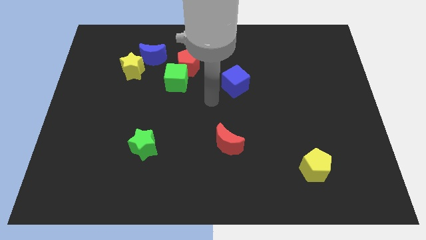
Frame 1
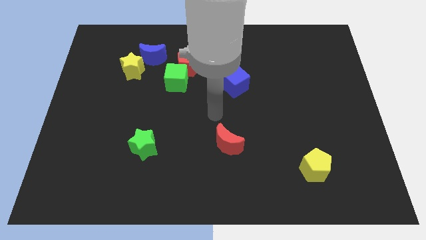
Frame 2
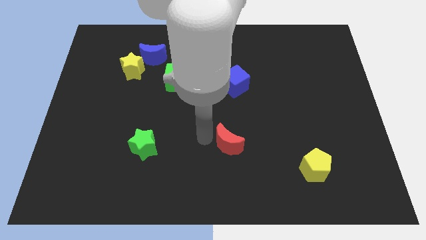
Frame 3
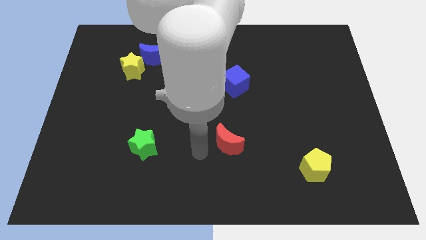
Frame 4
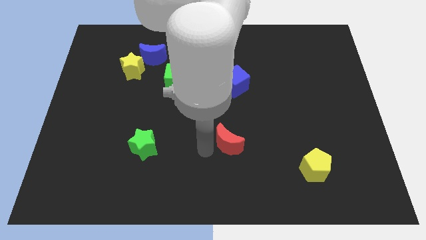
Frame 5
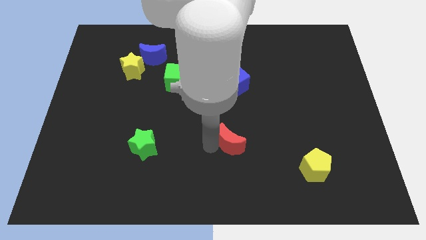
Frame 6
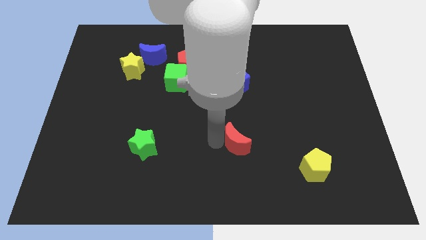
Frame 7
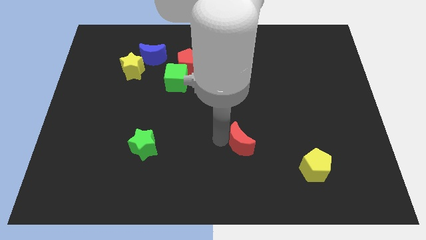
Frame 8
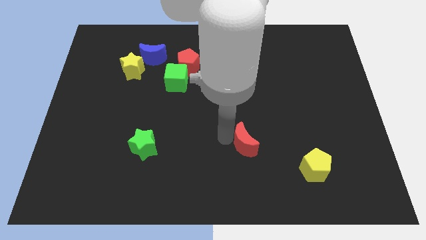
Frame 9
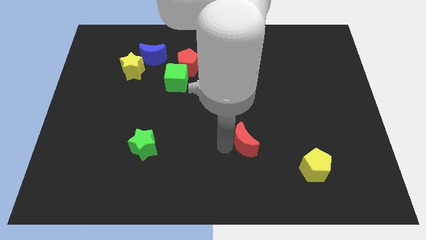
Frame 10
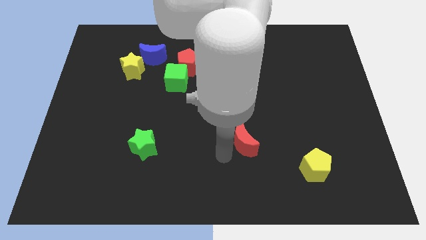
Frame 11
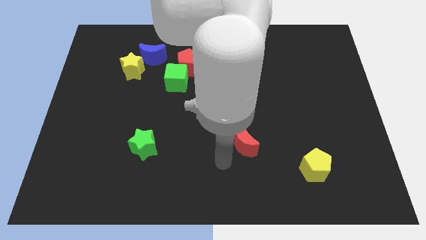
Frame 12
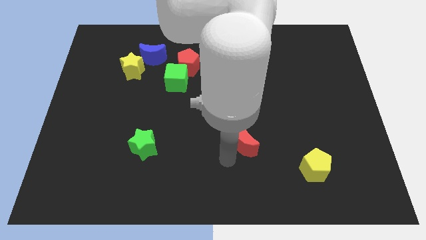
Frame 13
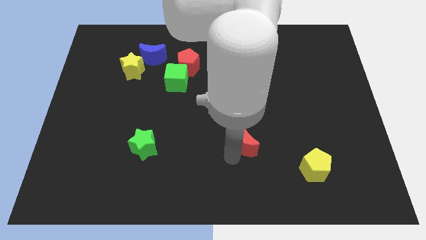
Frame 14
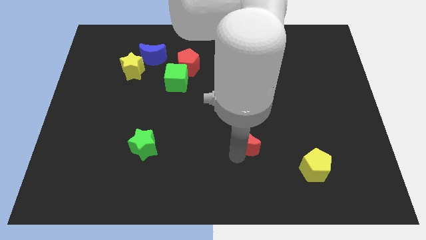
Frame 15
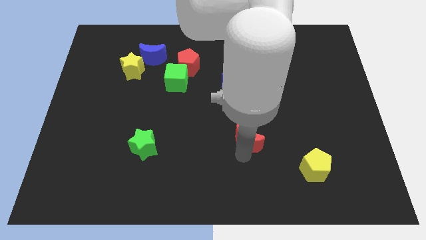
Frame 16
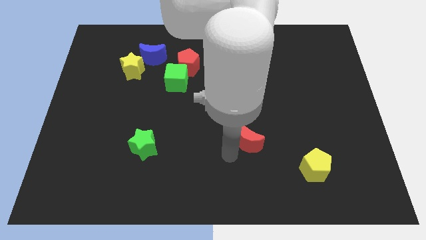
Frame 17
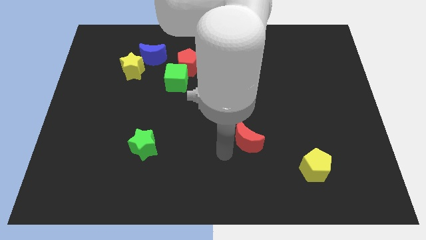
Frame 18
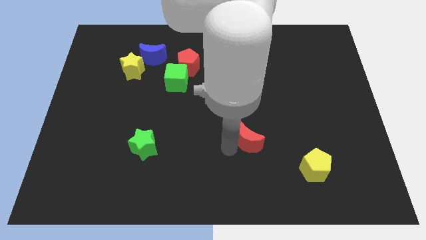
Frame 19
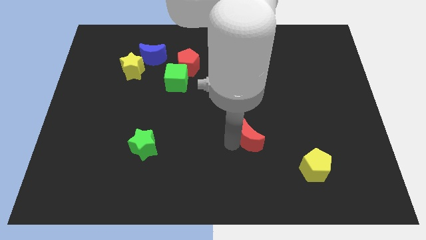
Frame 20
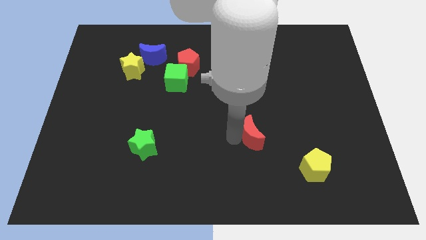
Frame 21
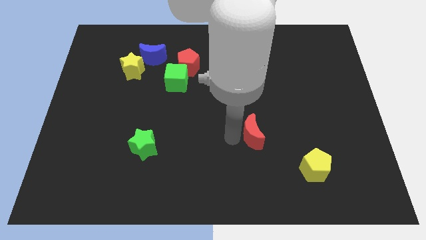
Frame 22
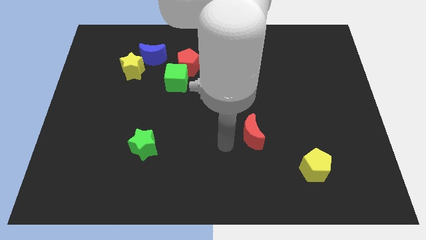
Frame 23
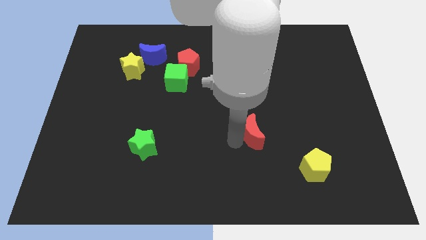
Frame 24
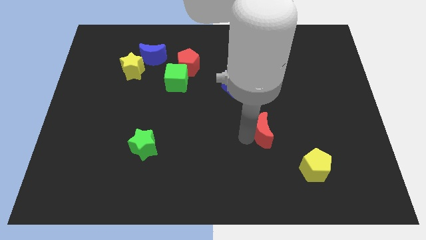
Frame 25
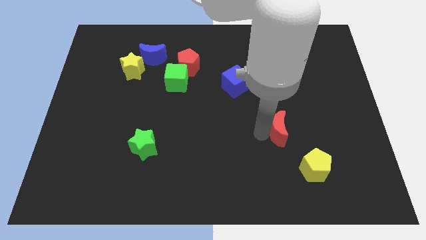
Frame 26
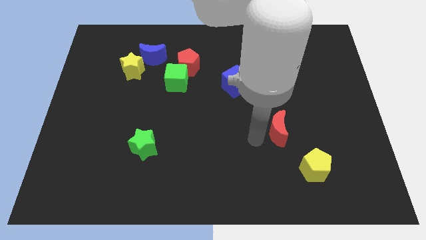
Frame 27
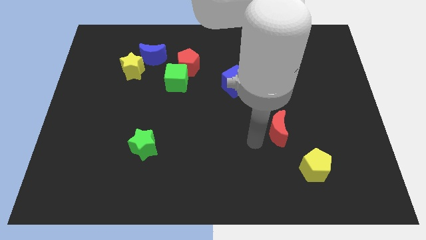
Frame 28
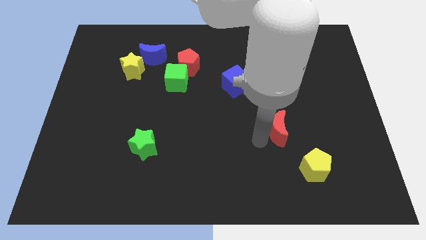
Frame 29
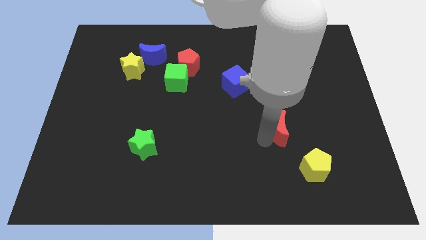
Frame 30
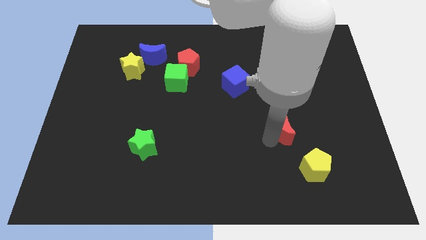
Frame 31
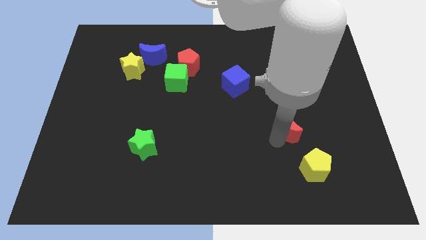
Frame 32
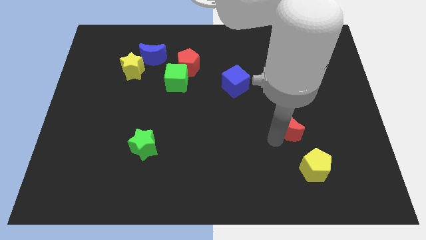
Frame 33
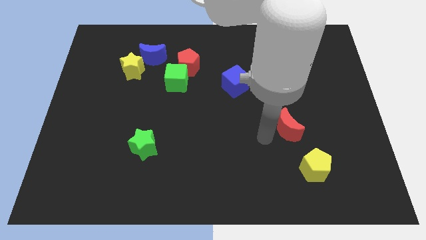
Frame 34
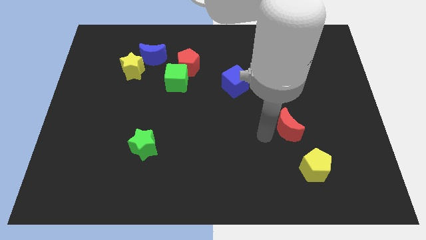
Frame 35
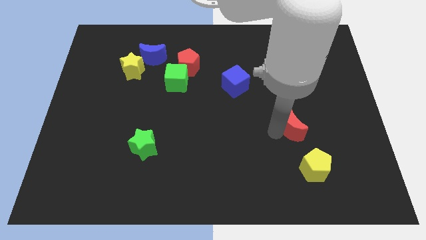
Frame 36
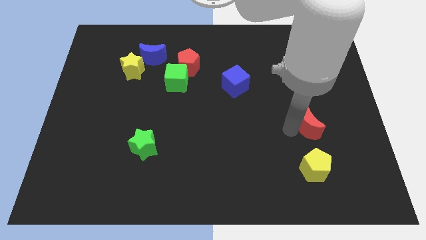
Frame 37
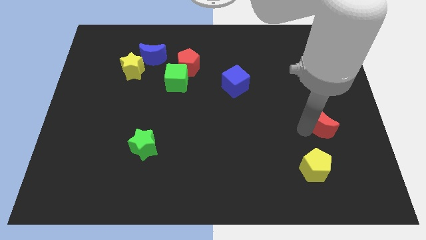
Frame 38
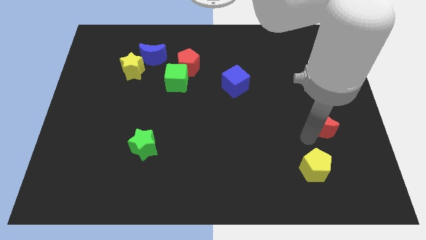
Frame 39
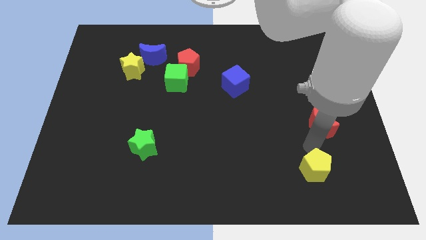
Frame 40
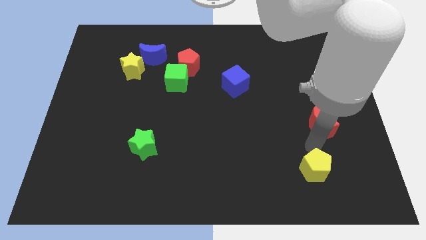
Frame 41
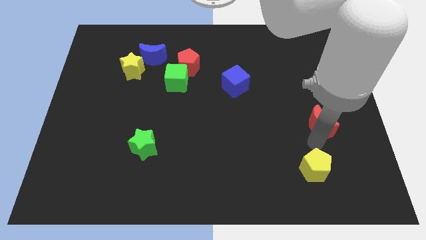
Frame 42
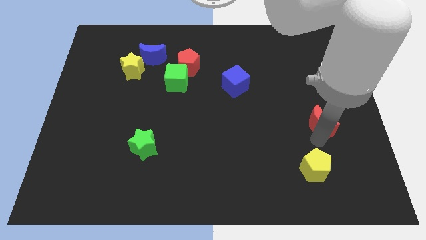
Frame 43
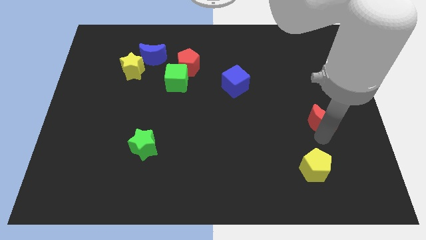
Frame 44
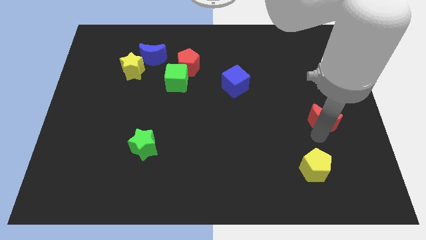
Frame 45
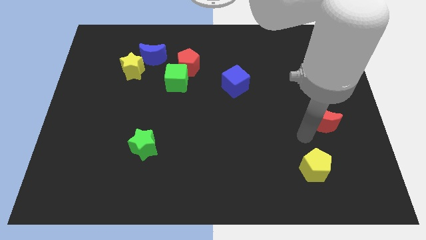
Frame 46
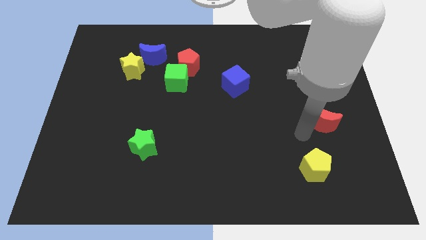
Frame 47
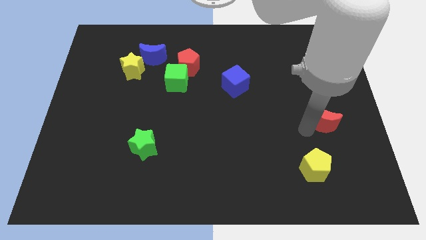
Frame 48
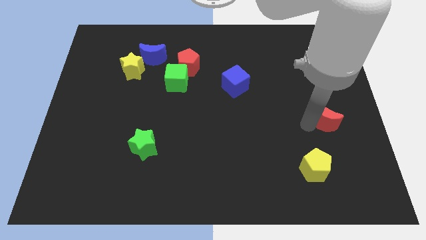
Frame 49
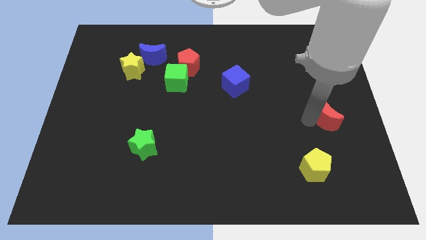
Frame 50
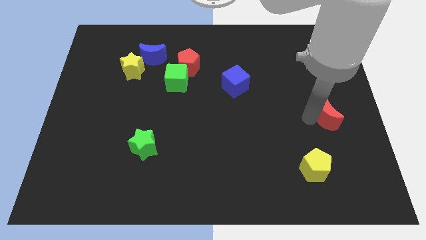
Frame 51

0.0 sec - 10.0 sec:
slide the red moon to the center right

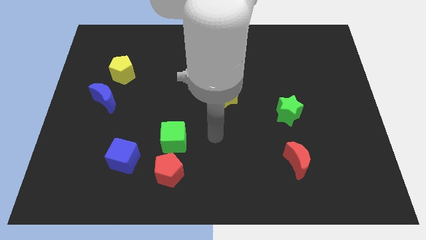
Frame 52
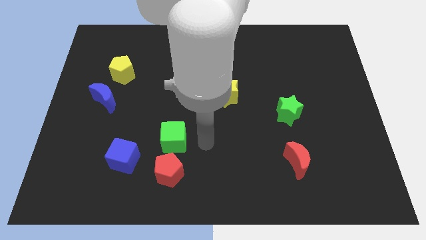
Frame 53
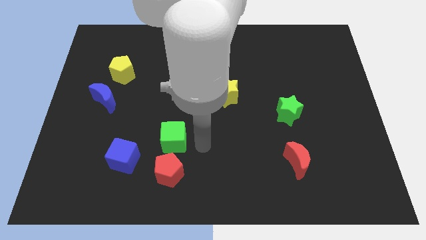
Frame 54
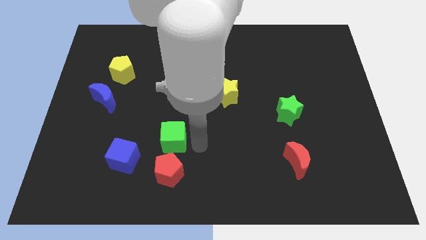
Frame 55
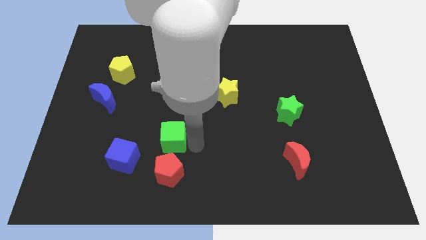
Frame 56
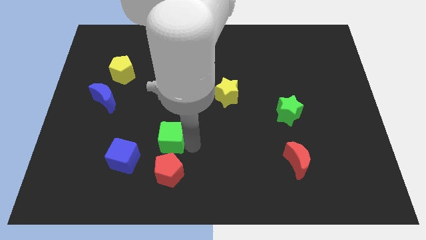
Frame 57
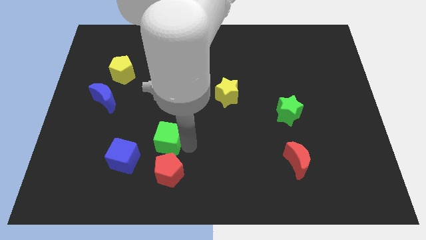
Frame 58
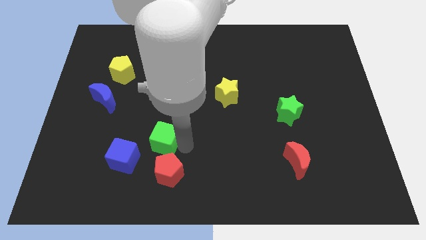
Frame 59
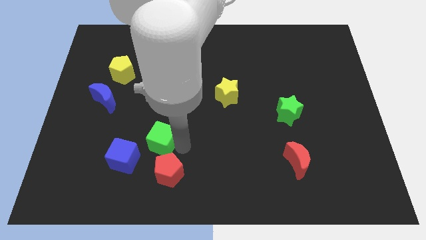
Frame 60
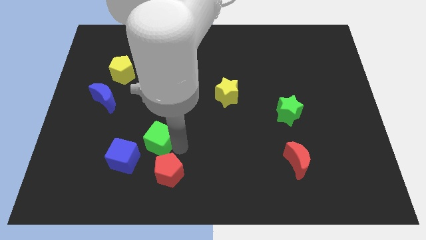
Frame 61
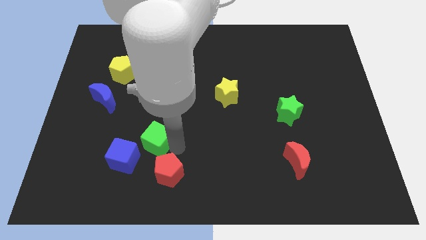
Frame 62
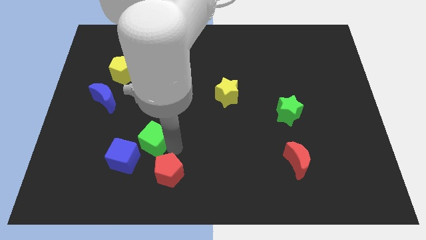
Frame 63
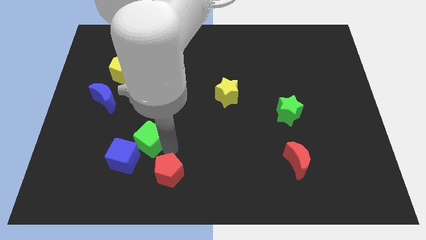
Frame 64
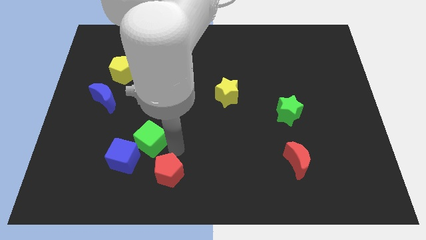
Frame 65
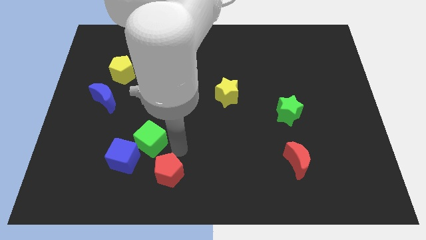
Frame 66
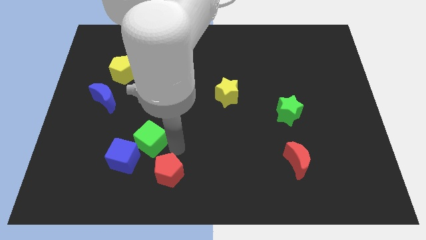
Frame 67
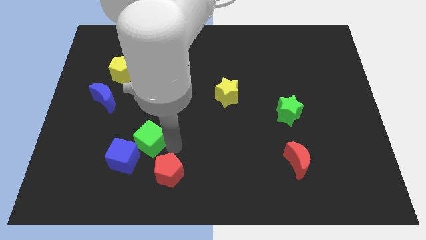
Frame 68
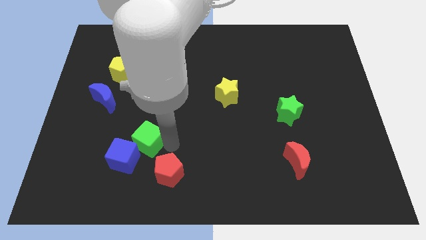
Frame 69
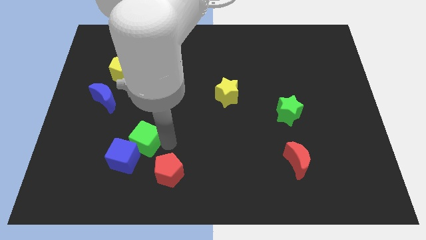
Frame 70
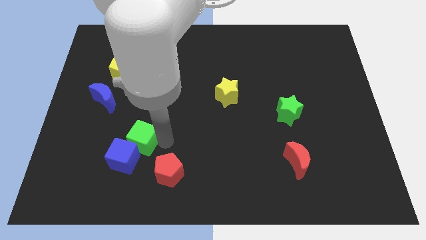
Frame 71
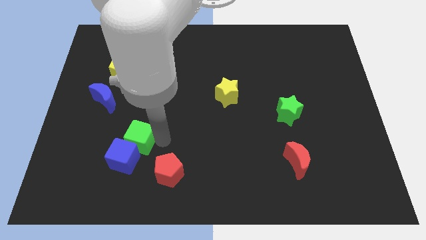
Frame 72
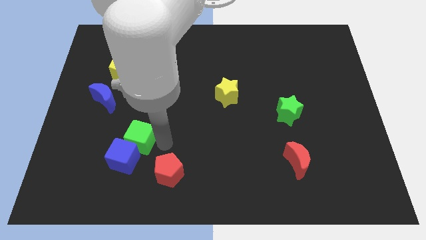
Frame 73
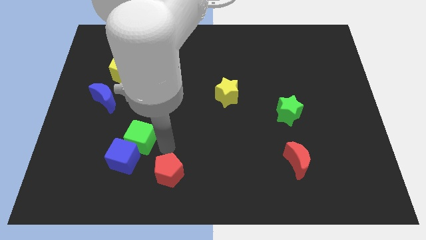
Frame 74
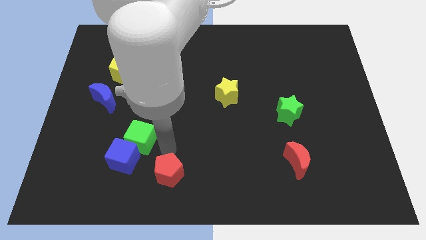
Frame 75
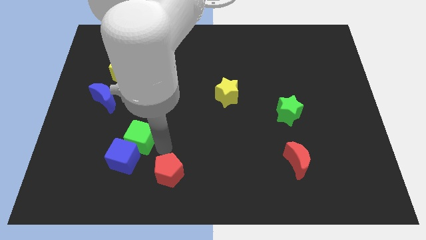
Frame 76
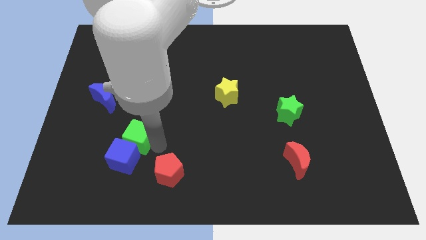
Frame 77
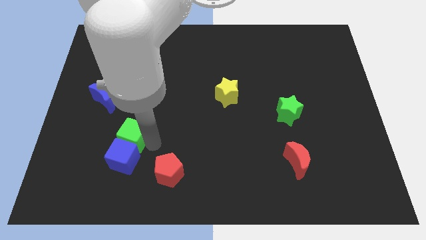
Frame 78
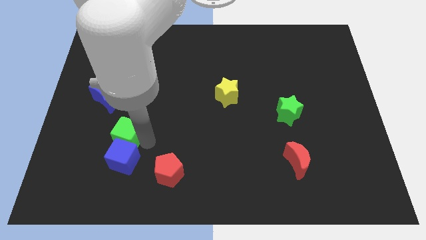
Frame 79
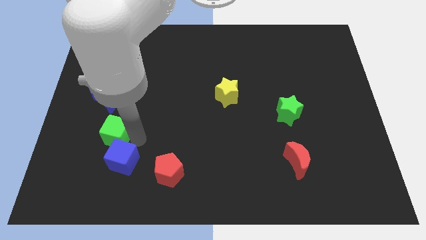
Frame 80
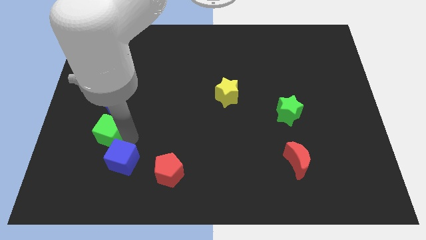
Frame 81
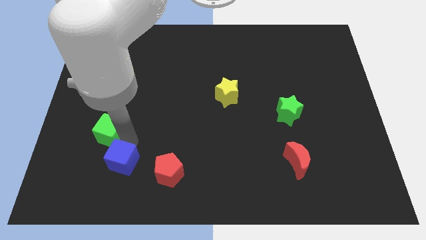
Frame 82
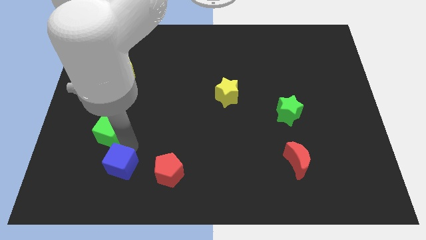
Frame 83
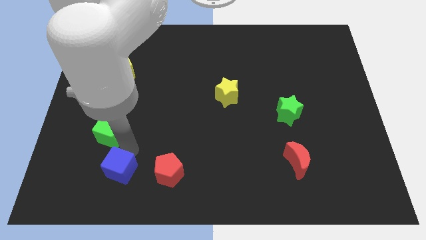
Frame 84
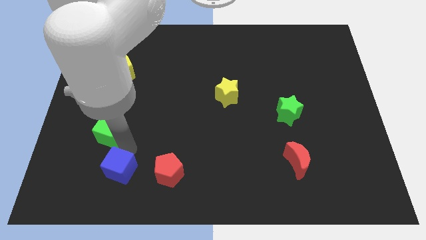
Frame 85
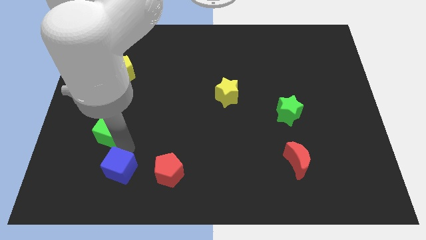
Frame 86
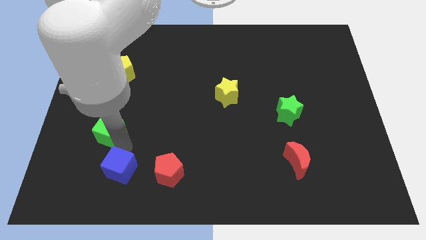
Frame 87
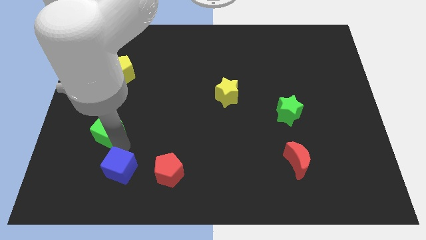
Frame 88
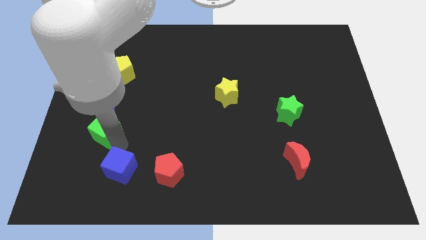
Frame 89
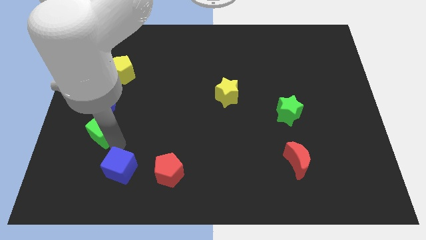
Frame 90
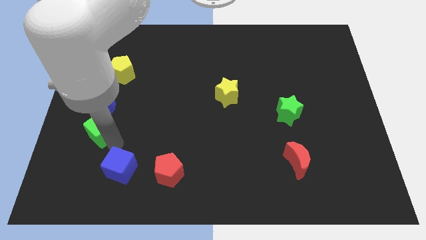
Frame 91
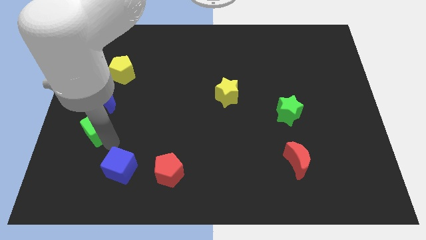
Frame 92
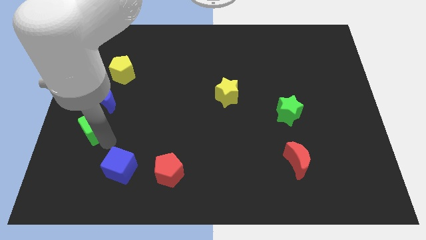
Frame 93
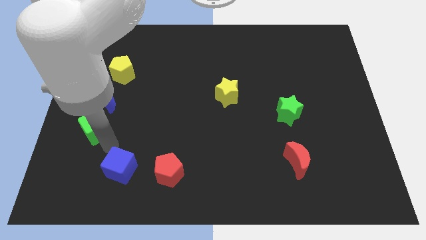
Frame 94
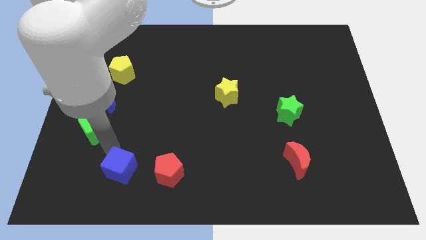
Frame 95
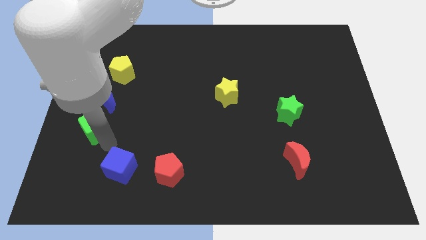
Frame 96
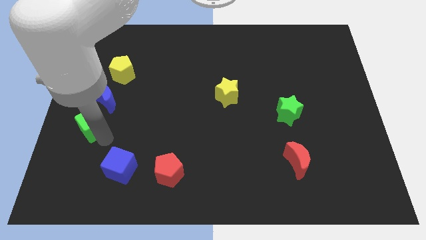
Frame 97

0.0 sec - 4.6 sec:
move the green cube to the center left
